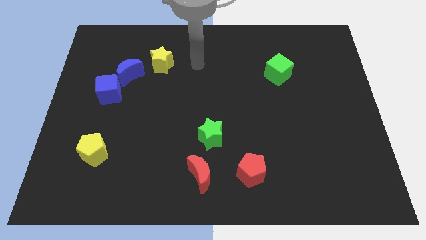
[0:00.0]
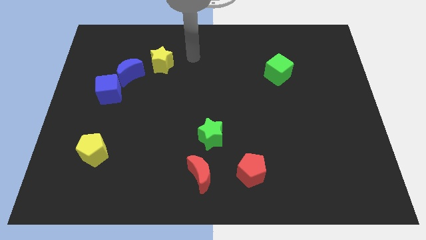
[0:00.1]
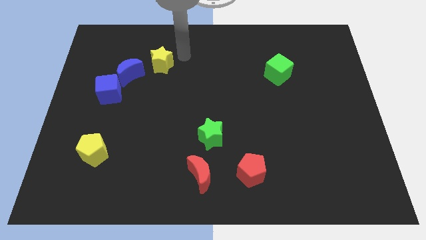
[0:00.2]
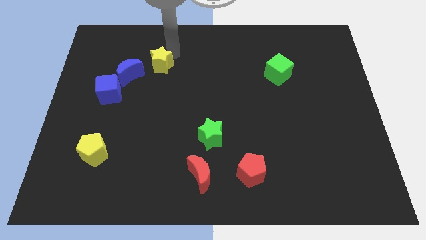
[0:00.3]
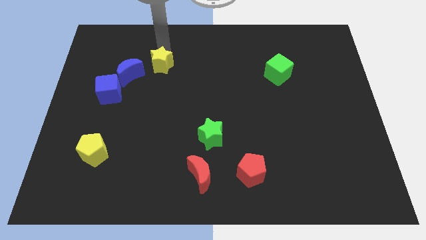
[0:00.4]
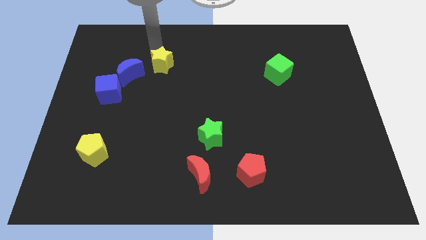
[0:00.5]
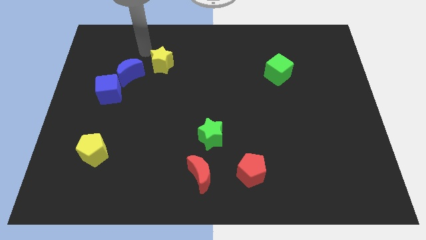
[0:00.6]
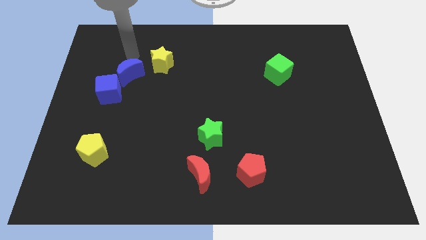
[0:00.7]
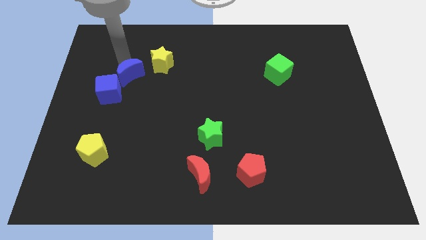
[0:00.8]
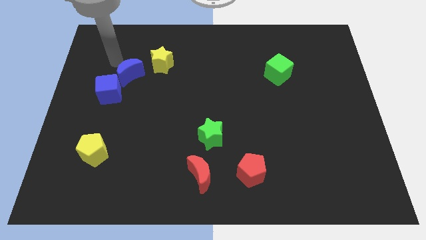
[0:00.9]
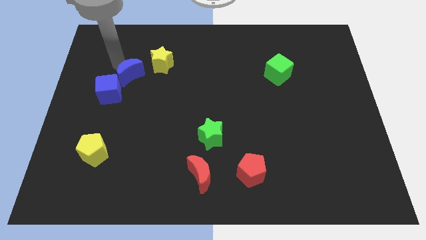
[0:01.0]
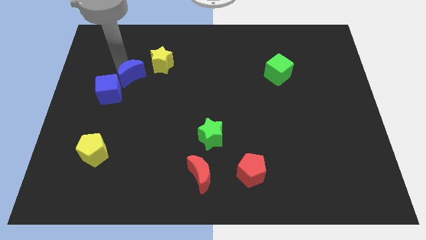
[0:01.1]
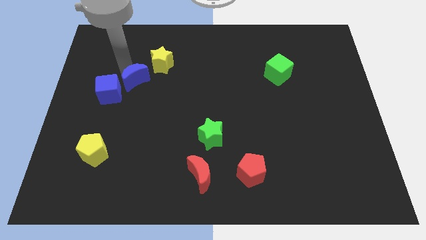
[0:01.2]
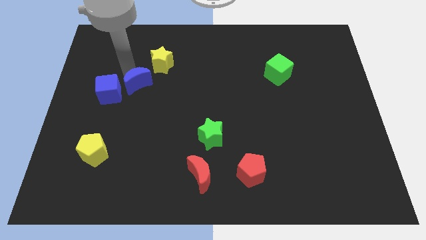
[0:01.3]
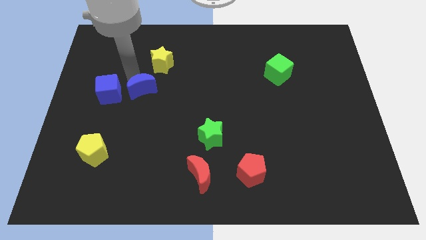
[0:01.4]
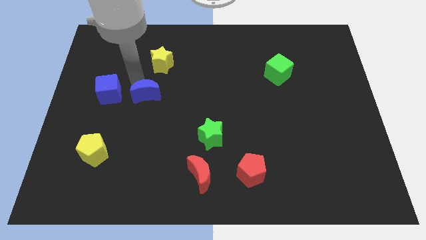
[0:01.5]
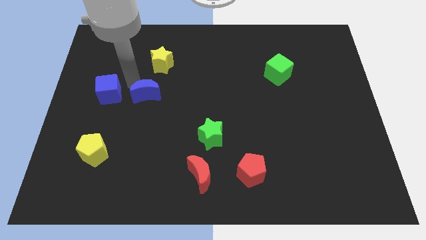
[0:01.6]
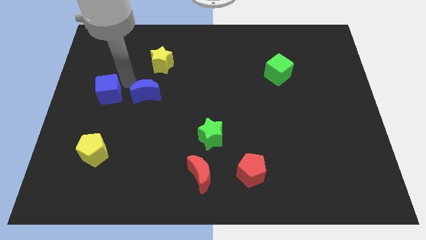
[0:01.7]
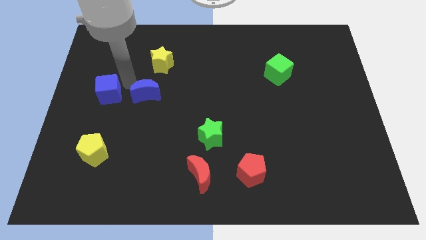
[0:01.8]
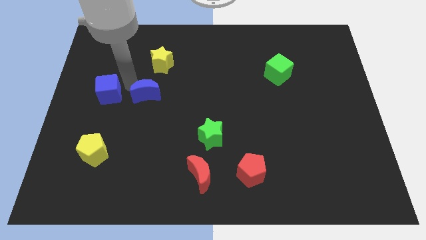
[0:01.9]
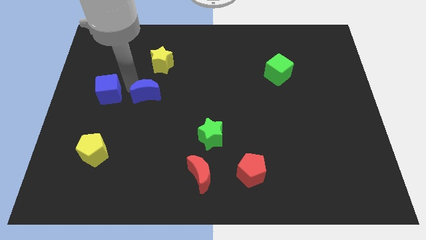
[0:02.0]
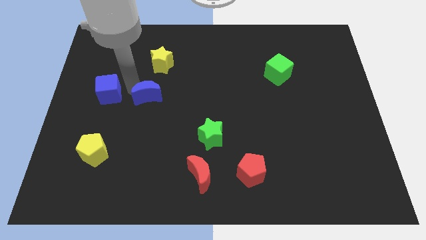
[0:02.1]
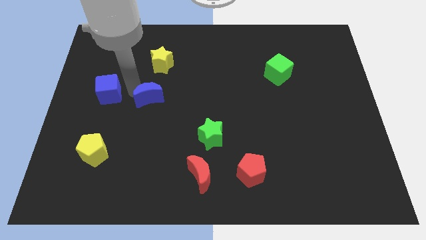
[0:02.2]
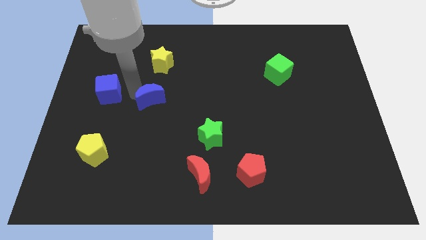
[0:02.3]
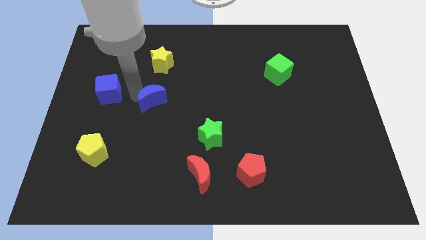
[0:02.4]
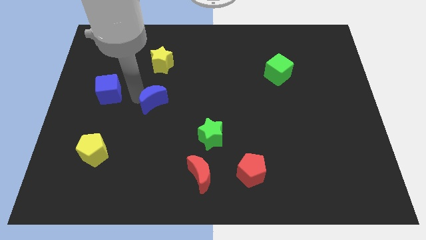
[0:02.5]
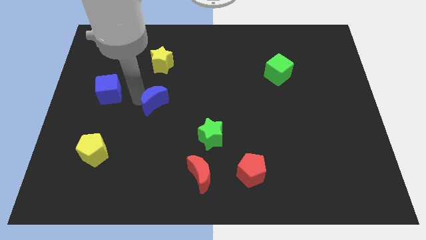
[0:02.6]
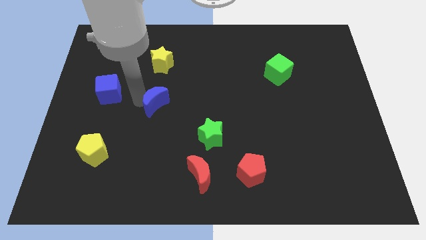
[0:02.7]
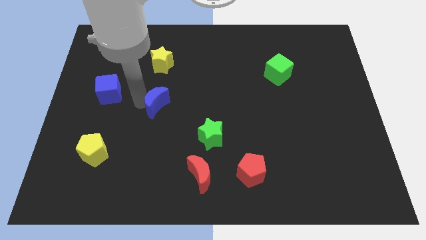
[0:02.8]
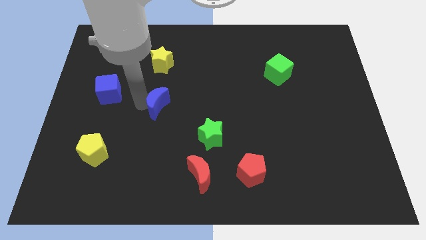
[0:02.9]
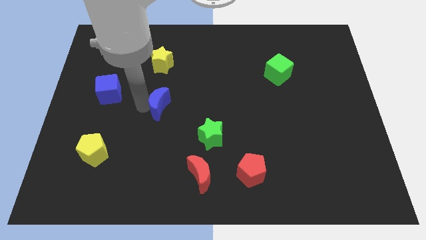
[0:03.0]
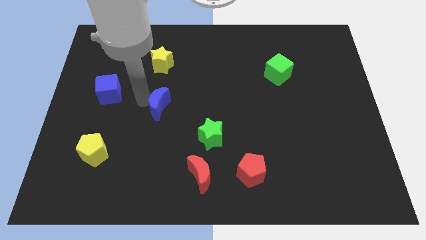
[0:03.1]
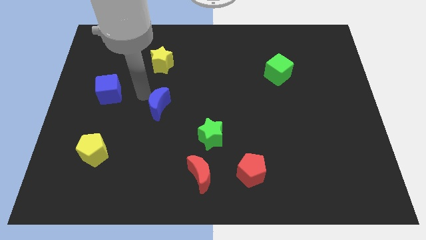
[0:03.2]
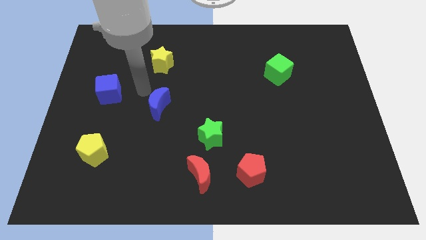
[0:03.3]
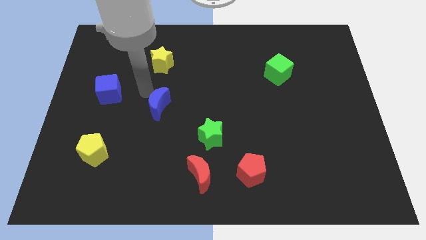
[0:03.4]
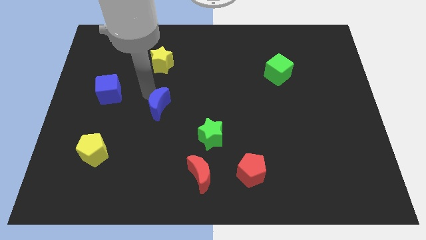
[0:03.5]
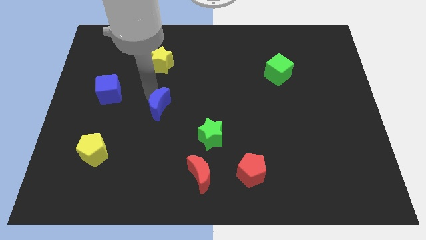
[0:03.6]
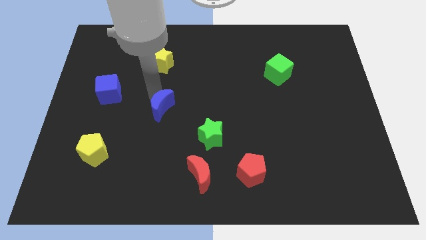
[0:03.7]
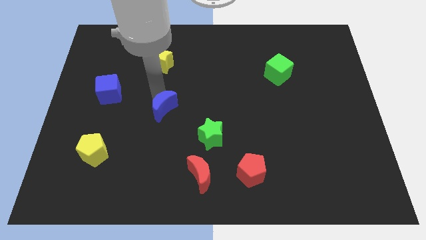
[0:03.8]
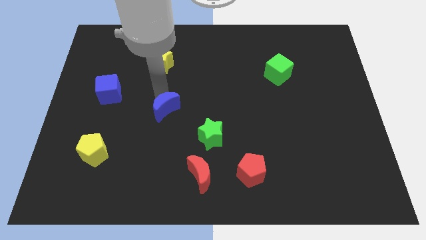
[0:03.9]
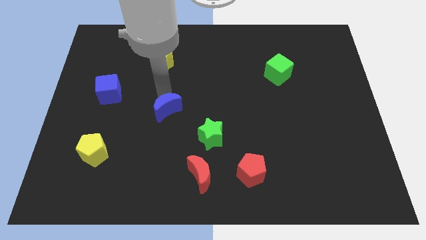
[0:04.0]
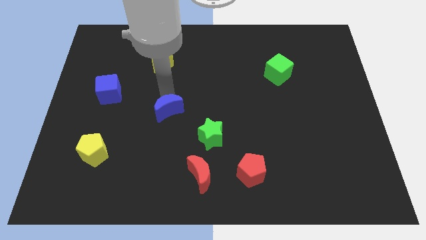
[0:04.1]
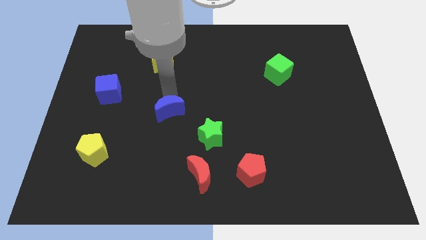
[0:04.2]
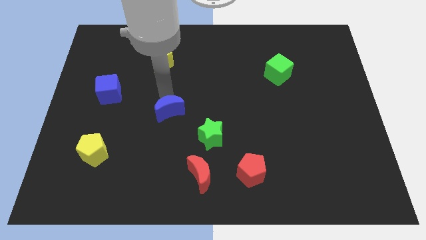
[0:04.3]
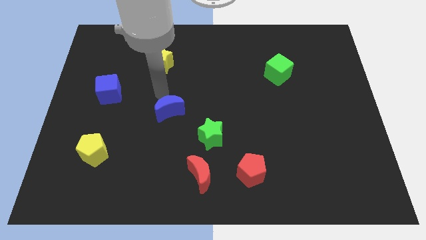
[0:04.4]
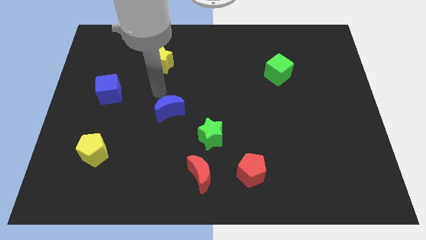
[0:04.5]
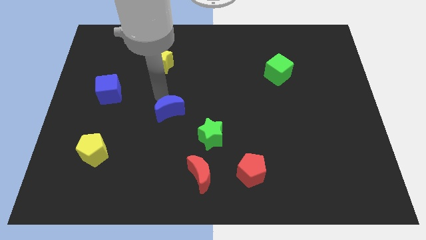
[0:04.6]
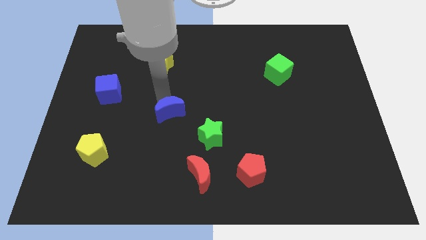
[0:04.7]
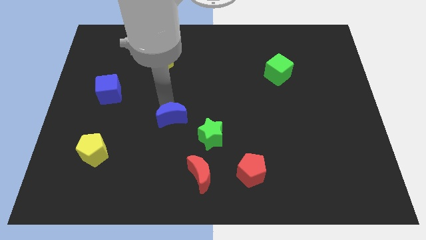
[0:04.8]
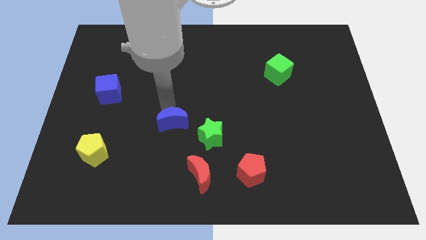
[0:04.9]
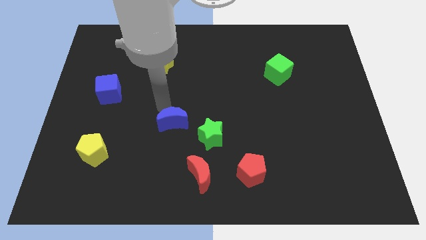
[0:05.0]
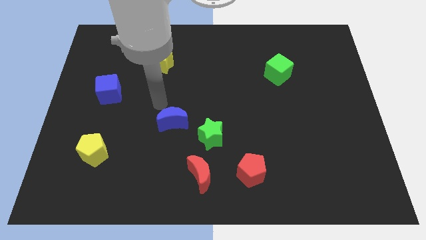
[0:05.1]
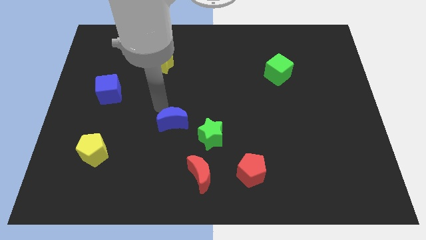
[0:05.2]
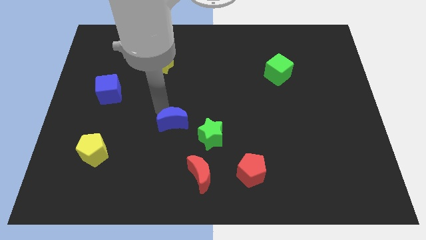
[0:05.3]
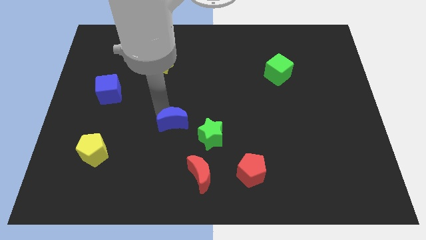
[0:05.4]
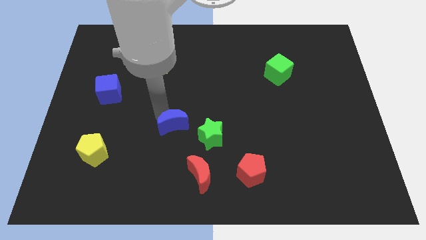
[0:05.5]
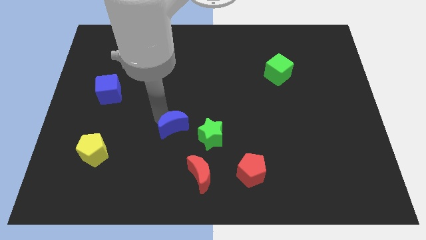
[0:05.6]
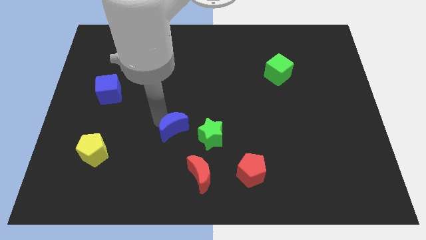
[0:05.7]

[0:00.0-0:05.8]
move the blue moon down and to the right

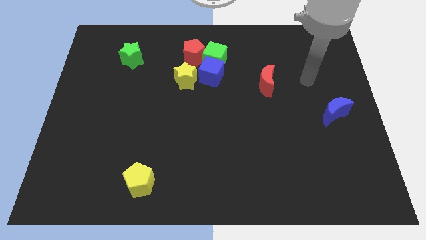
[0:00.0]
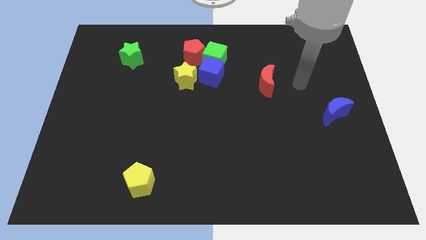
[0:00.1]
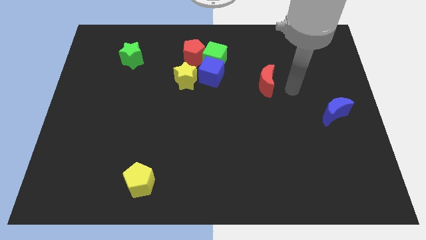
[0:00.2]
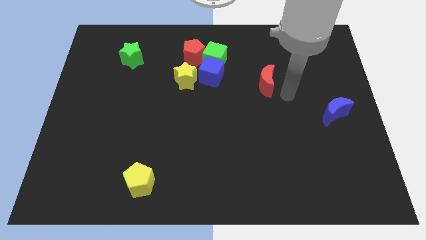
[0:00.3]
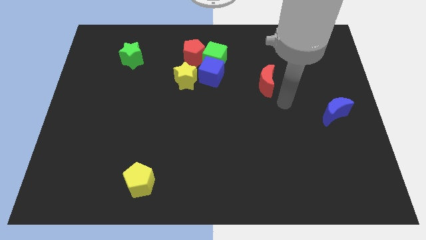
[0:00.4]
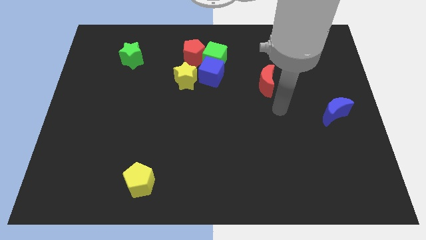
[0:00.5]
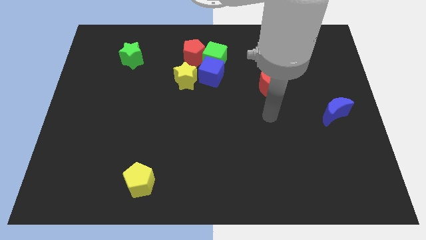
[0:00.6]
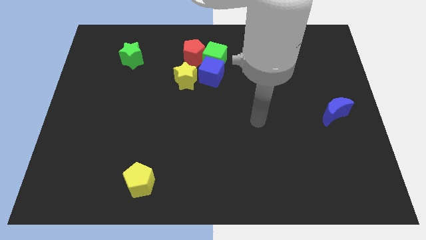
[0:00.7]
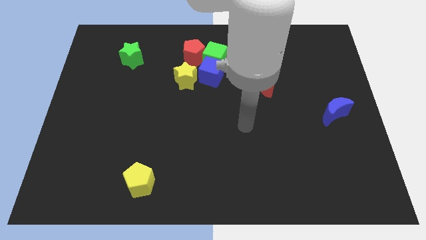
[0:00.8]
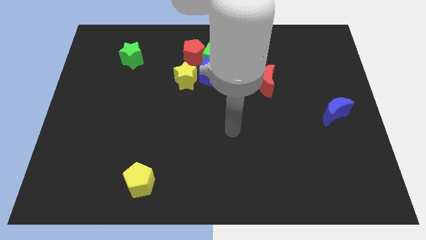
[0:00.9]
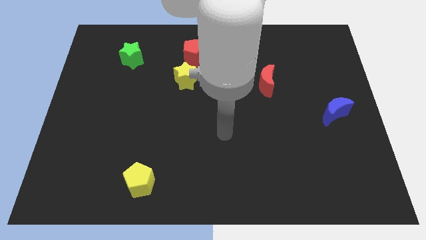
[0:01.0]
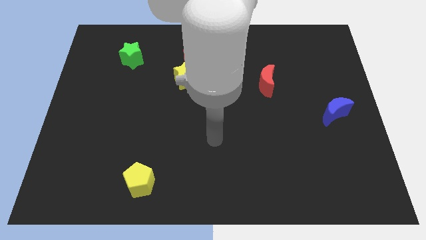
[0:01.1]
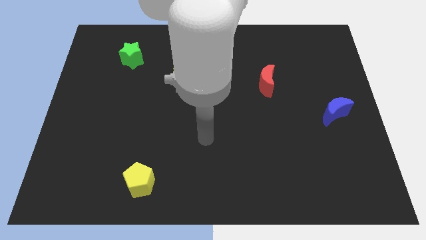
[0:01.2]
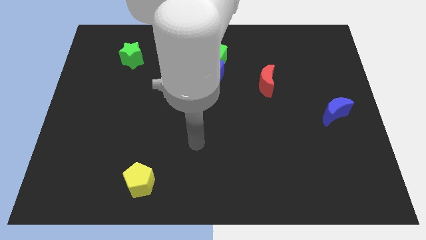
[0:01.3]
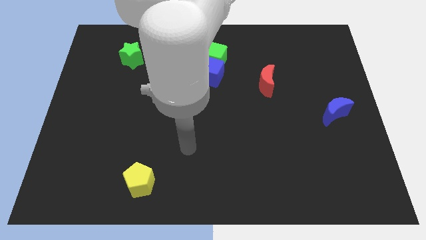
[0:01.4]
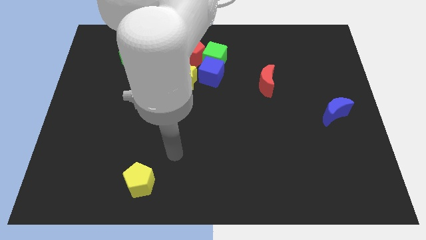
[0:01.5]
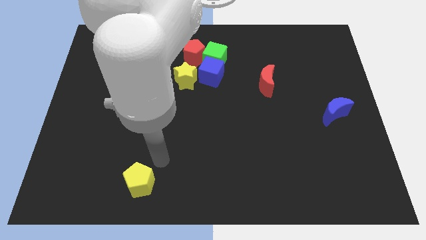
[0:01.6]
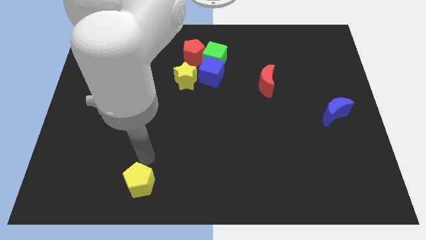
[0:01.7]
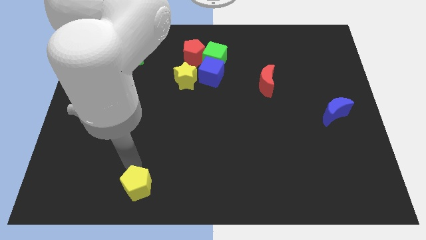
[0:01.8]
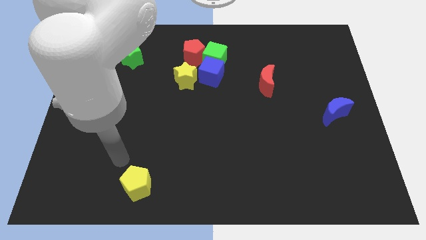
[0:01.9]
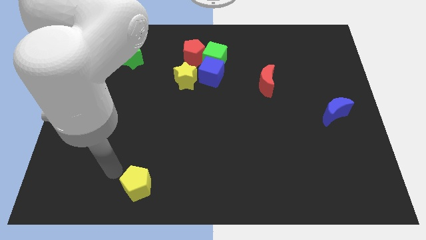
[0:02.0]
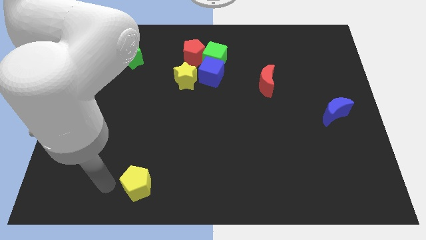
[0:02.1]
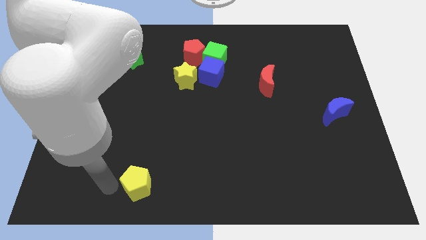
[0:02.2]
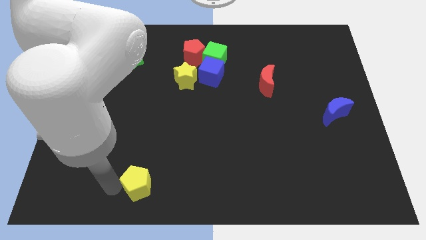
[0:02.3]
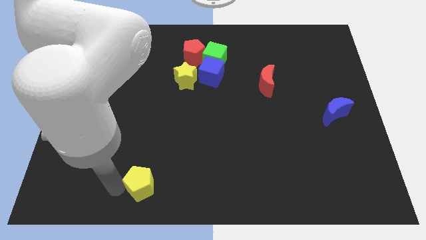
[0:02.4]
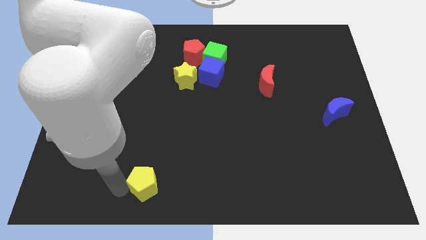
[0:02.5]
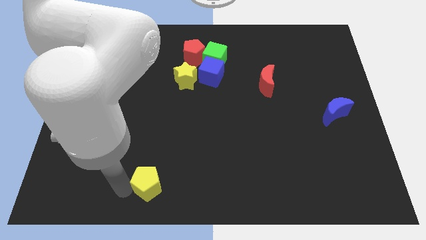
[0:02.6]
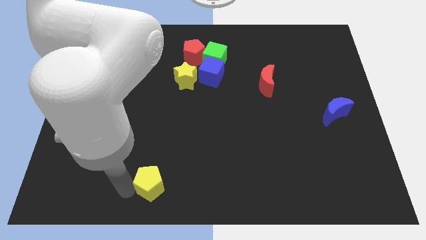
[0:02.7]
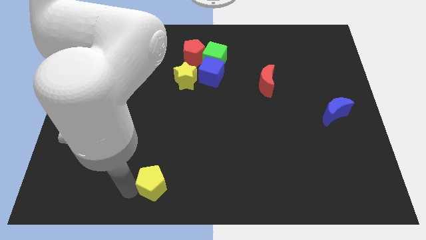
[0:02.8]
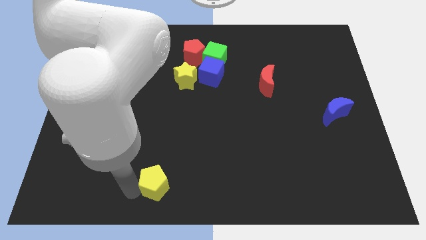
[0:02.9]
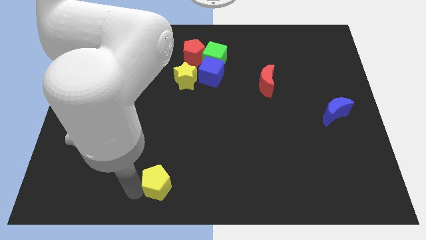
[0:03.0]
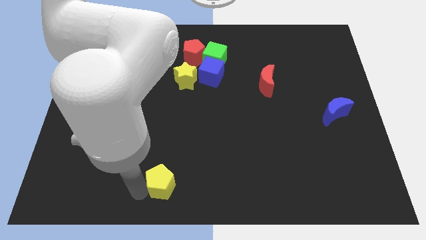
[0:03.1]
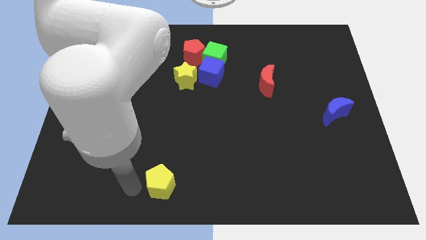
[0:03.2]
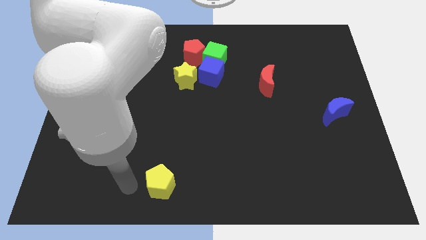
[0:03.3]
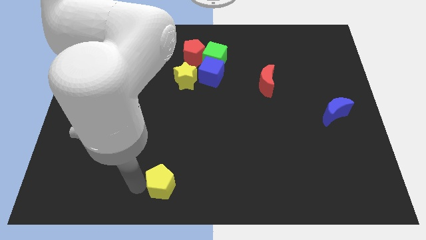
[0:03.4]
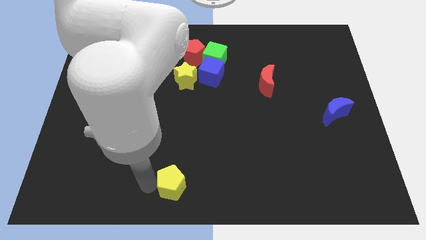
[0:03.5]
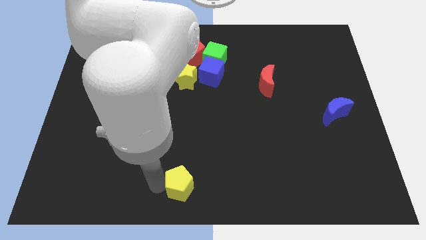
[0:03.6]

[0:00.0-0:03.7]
move the yellow pentagon slightly to the right
